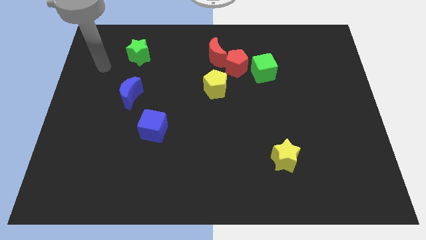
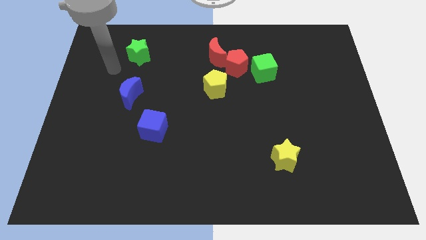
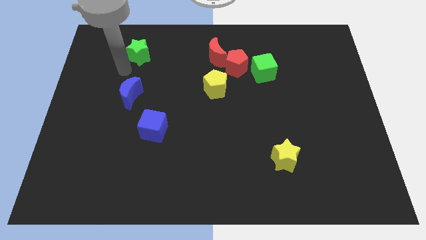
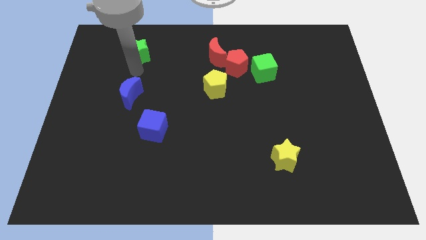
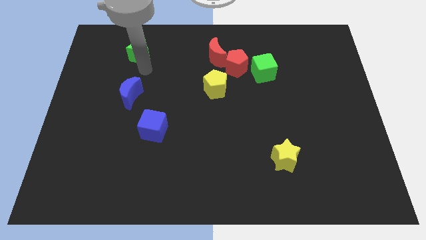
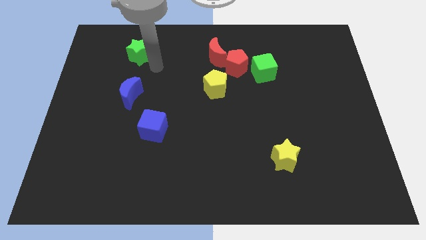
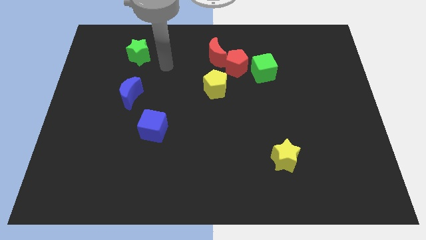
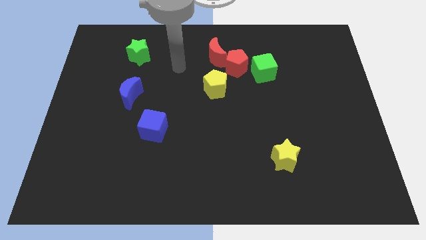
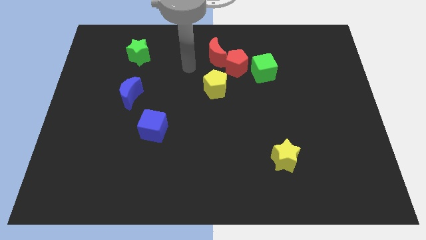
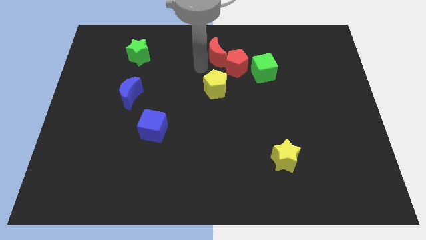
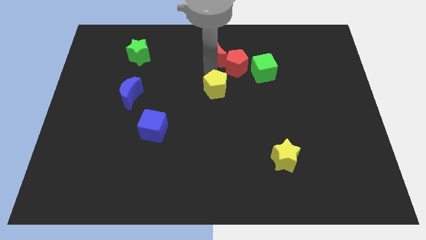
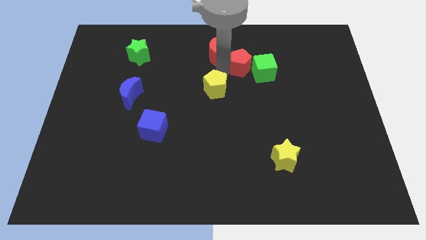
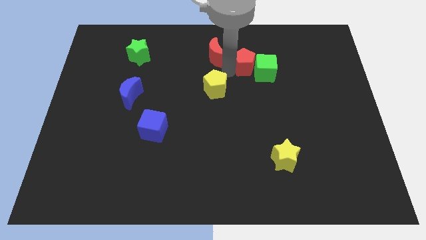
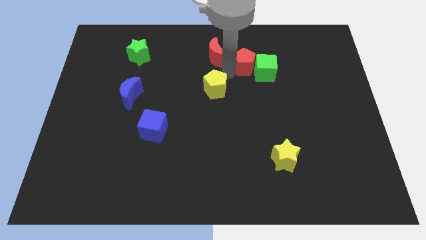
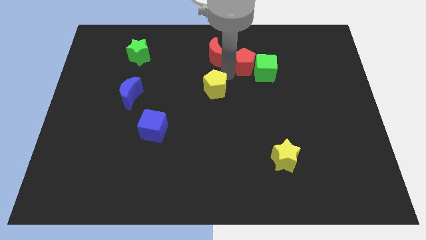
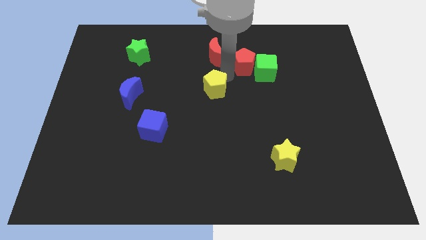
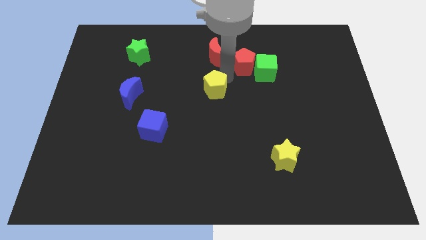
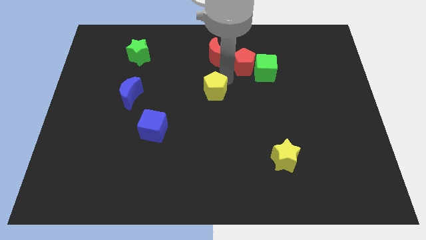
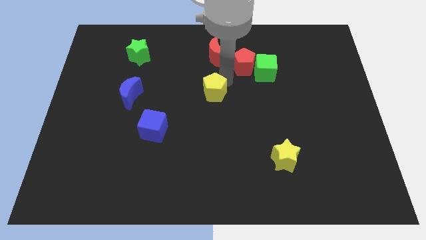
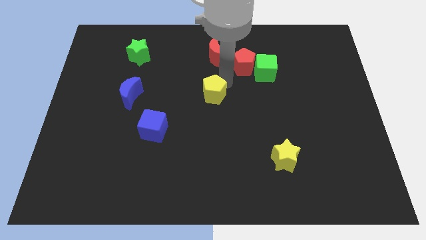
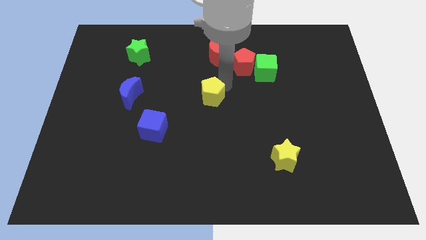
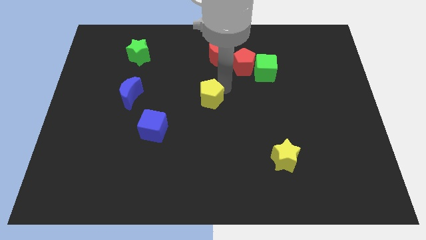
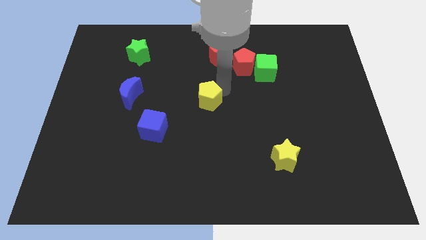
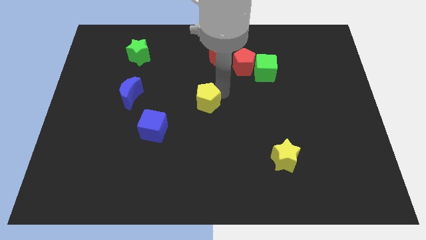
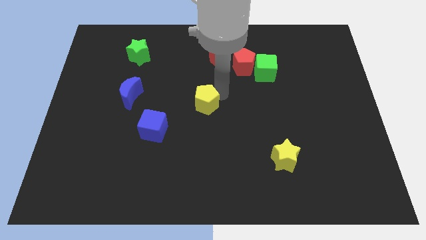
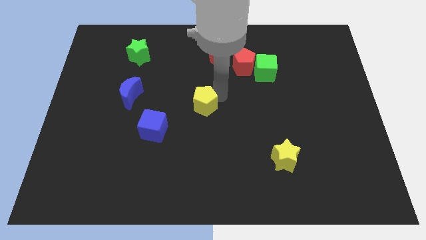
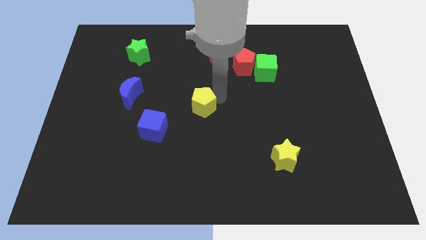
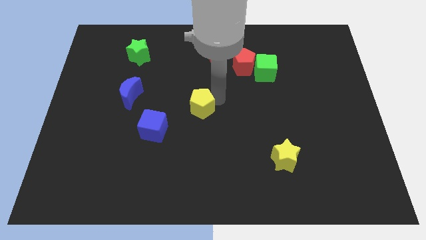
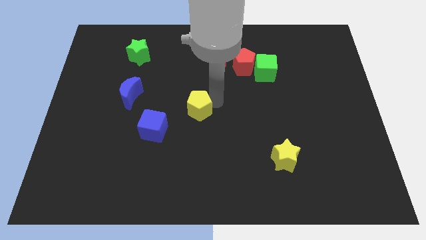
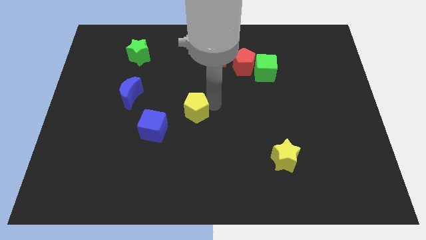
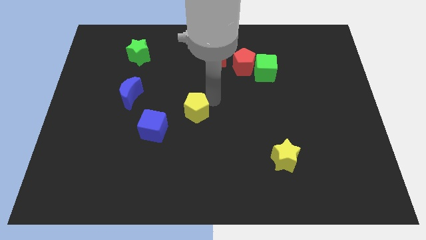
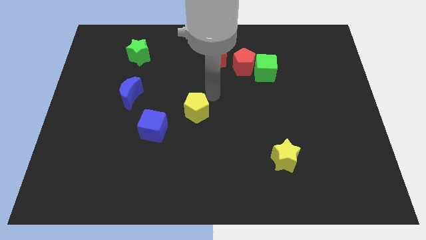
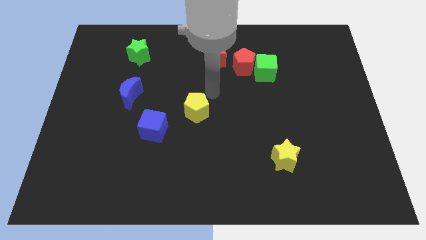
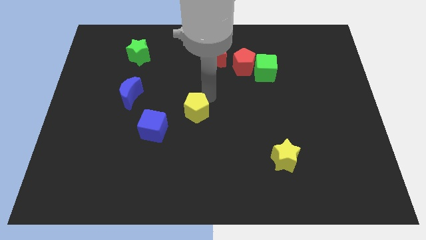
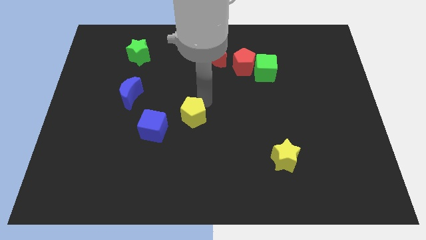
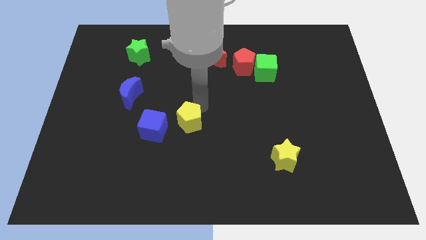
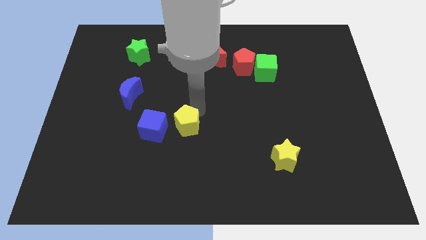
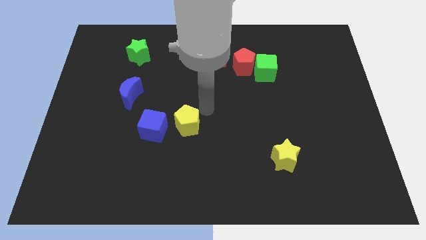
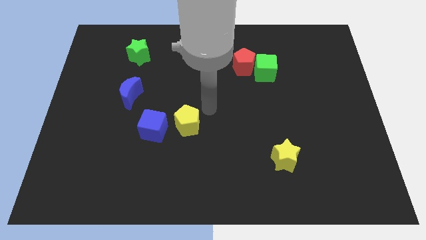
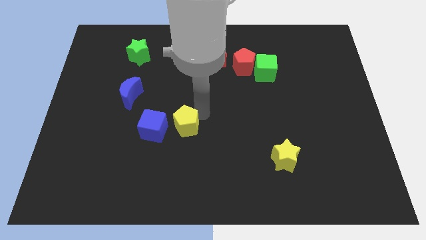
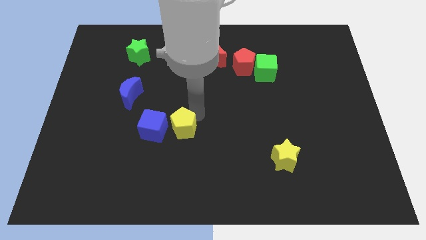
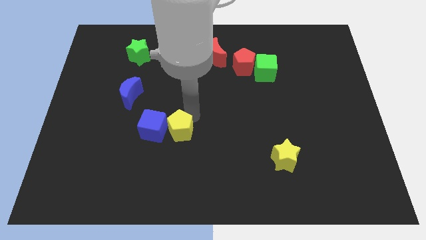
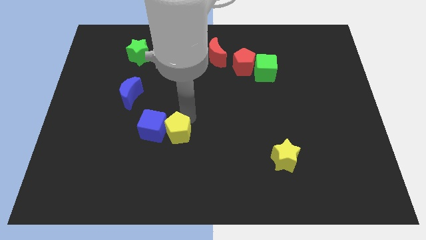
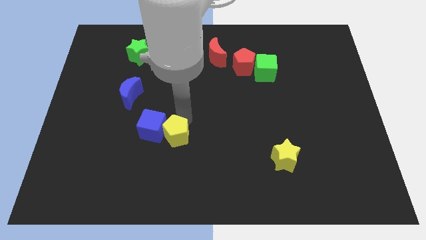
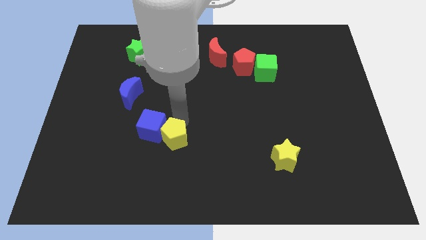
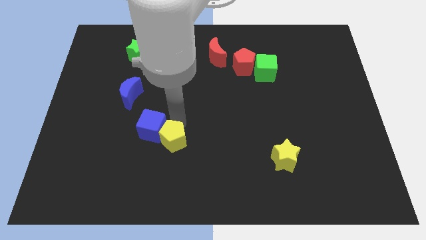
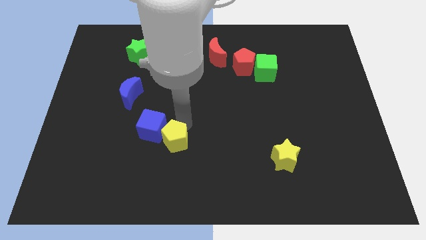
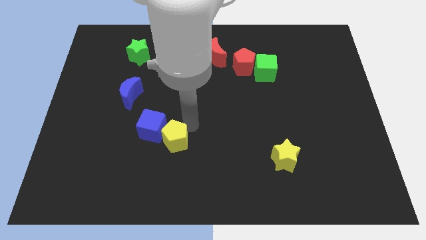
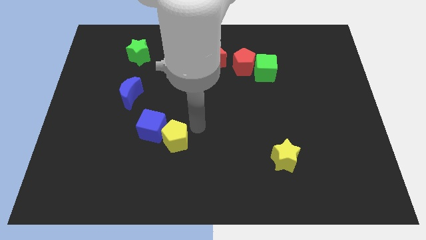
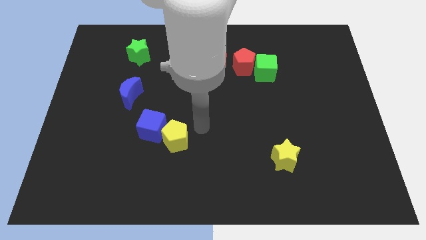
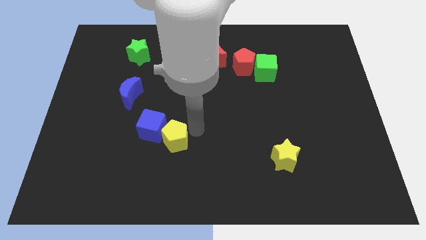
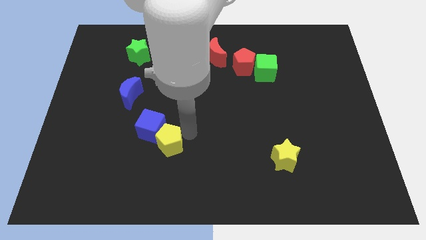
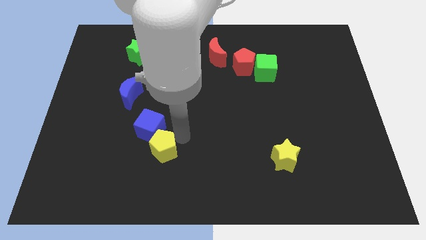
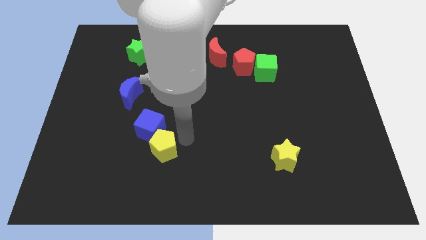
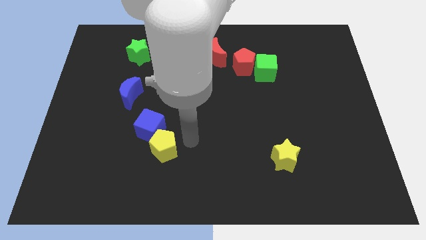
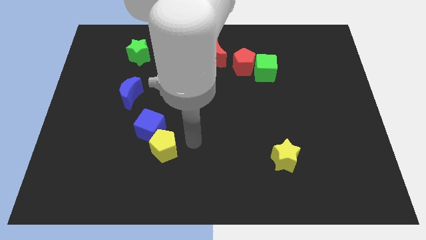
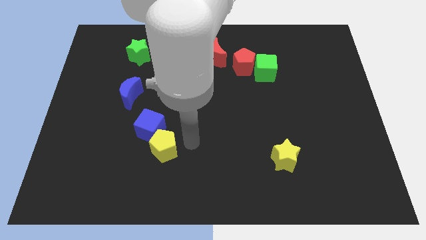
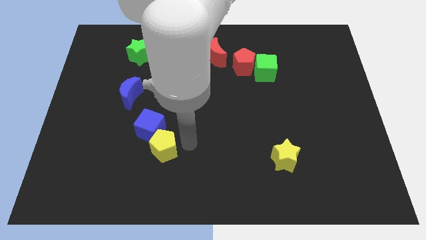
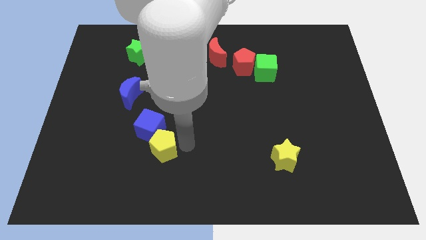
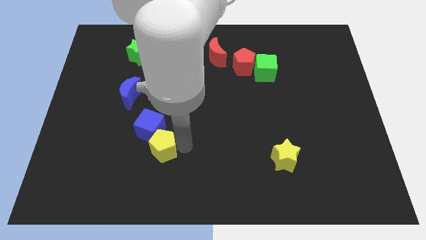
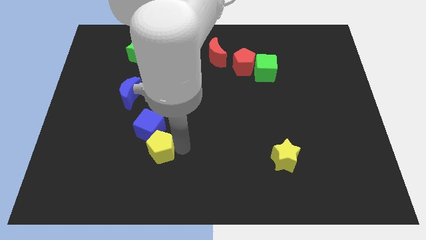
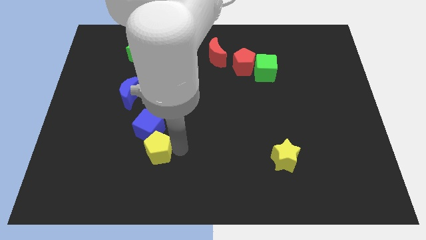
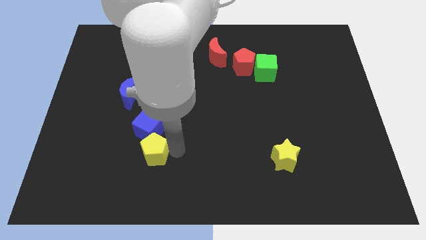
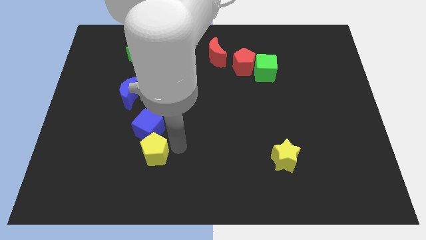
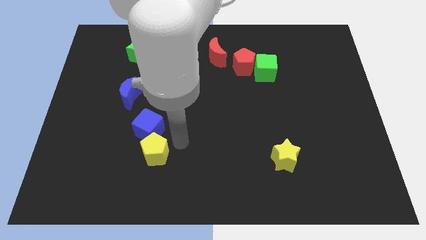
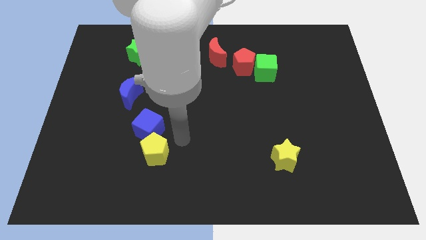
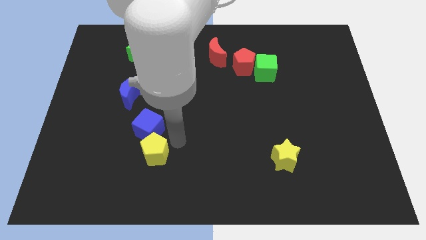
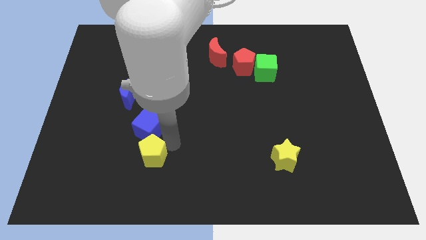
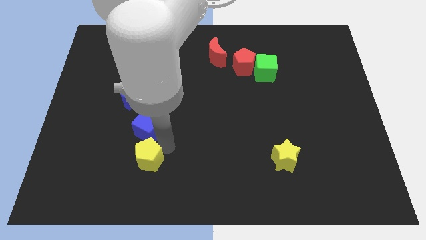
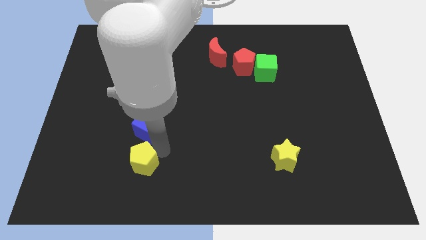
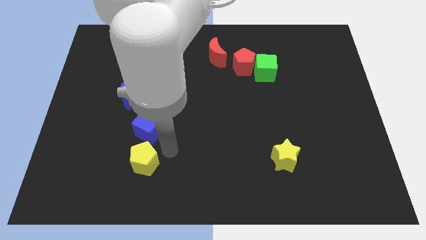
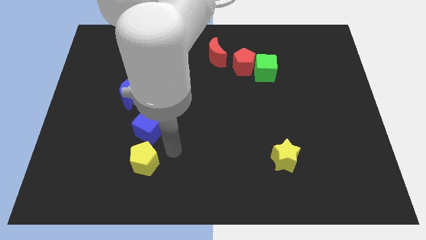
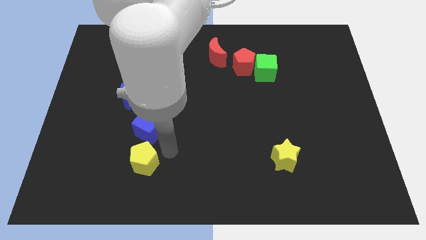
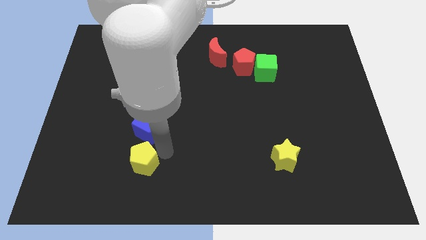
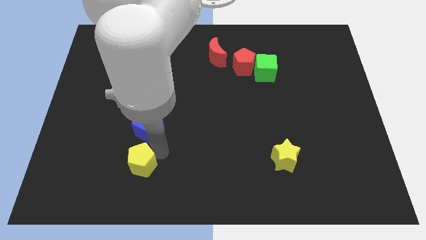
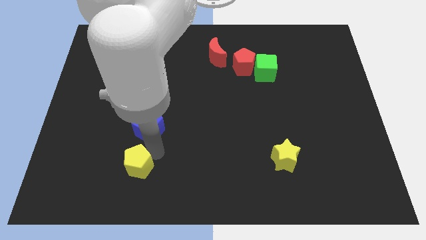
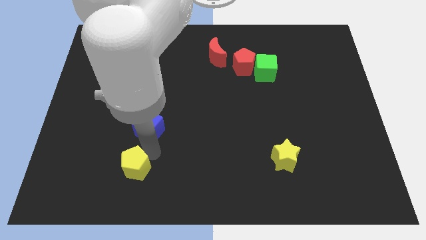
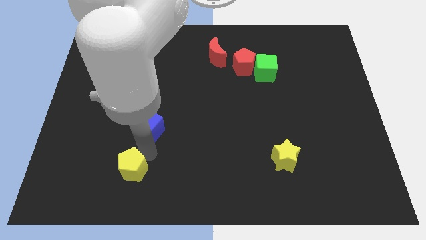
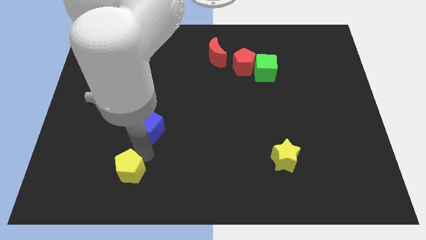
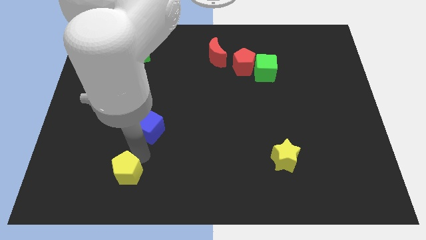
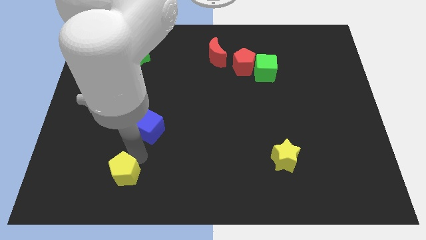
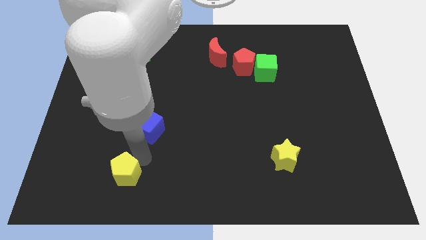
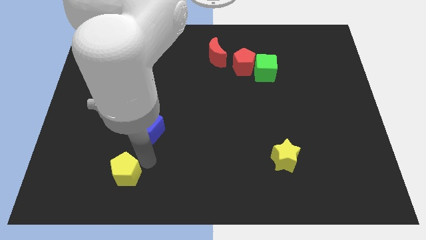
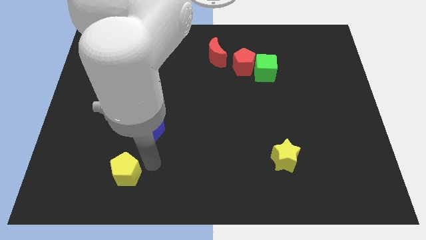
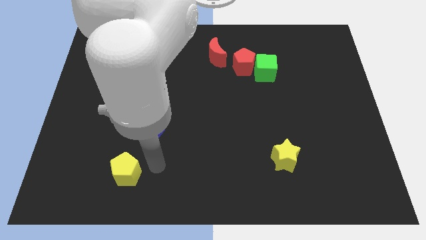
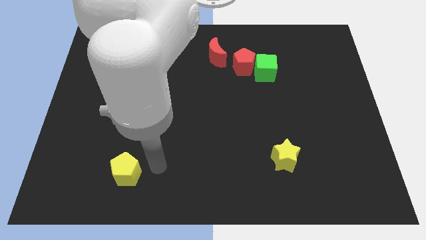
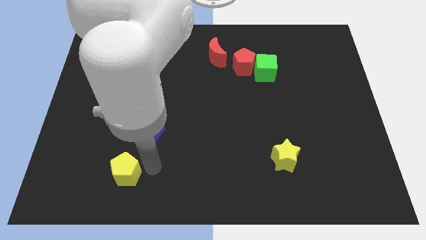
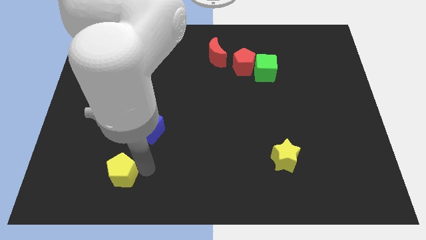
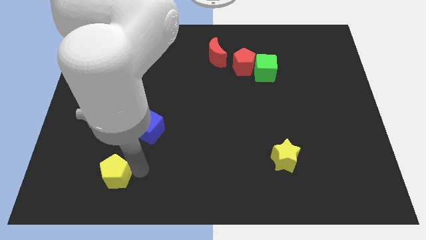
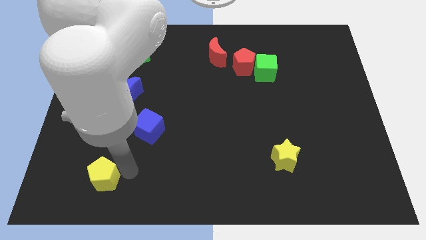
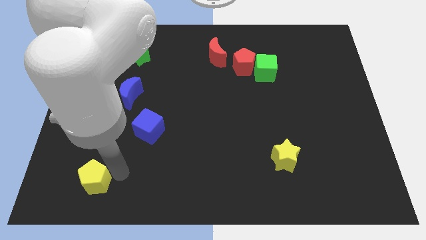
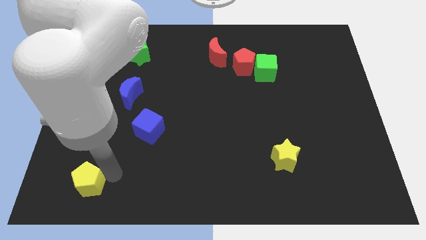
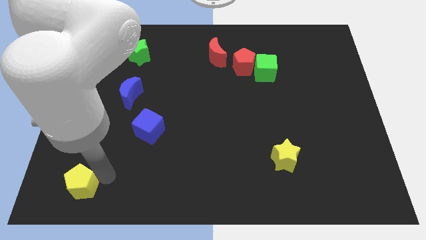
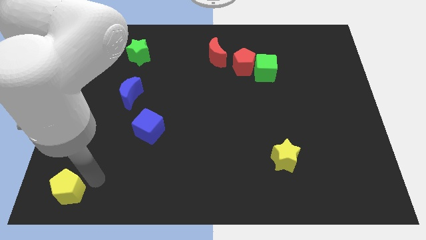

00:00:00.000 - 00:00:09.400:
put the yellow pentagon to the lower left corner
